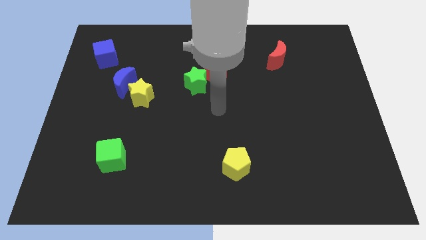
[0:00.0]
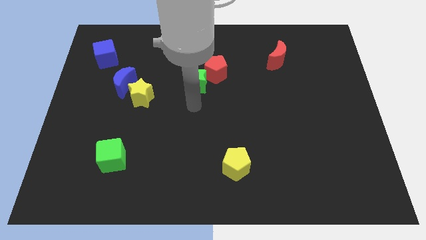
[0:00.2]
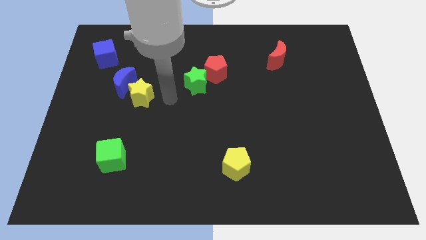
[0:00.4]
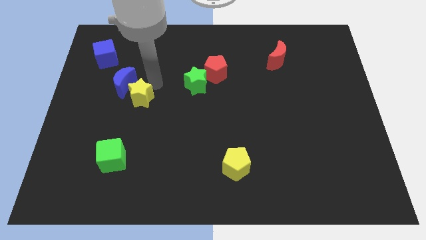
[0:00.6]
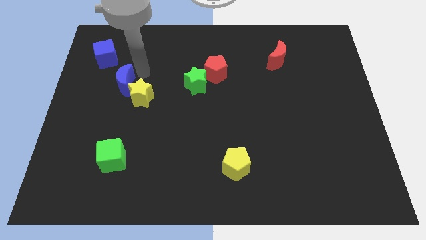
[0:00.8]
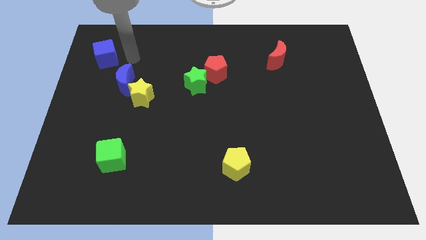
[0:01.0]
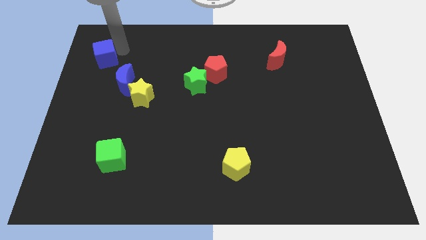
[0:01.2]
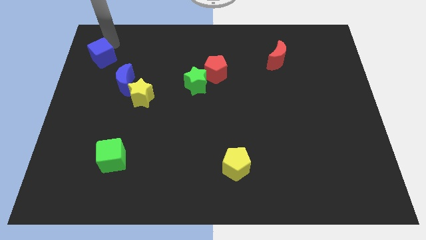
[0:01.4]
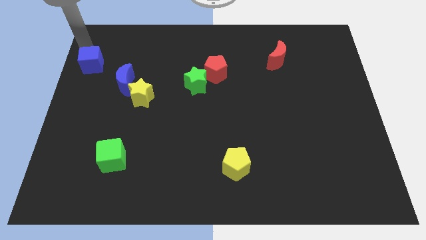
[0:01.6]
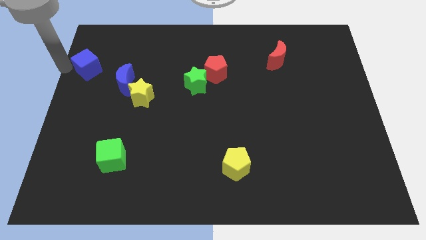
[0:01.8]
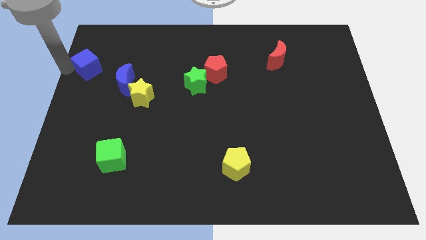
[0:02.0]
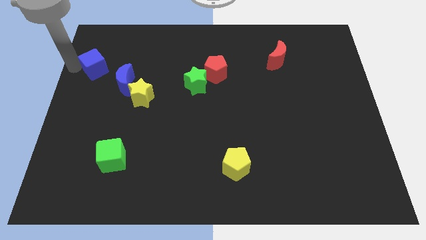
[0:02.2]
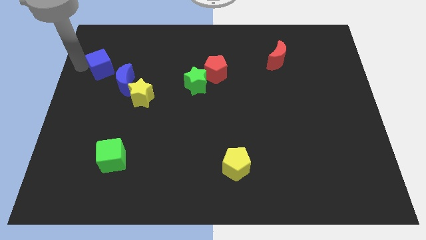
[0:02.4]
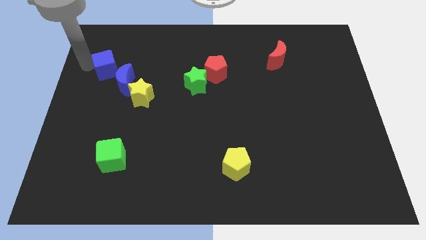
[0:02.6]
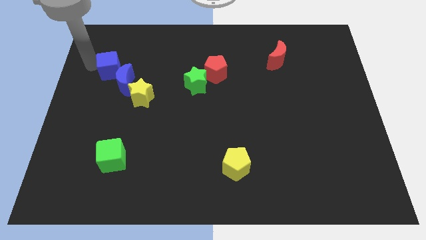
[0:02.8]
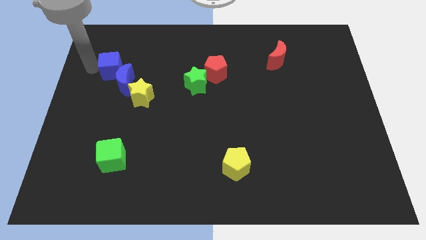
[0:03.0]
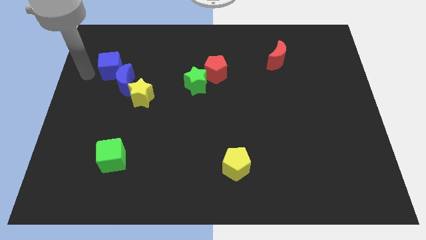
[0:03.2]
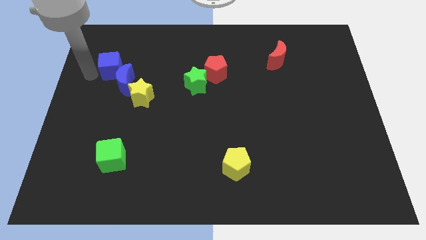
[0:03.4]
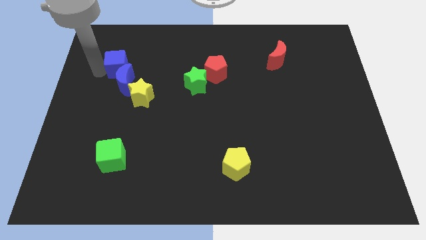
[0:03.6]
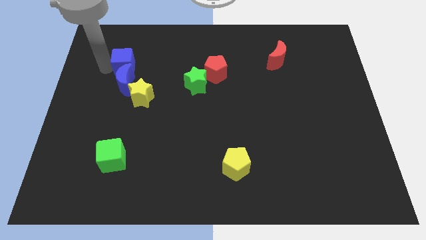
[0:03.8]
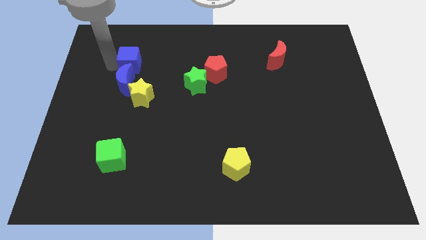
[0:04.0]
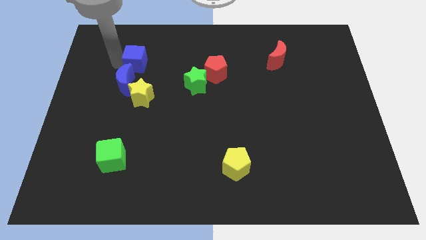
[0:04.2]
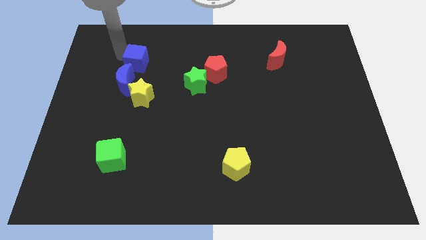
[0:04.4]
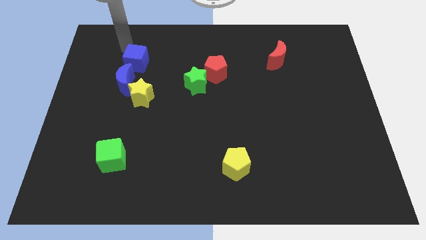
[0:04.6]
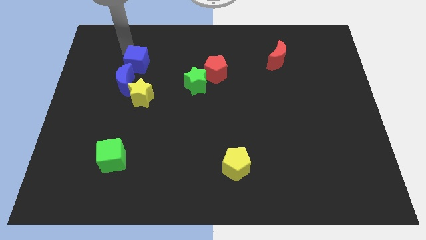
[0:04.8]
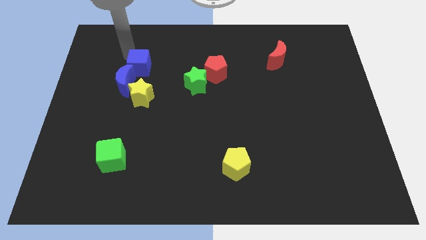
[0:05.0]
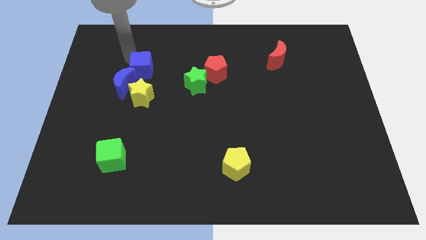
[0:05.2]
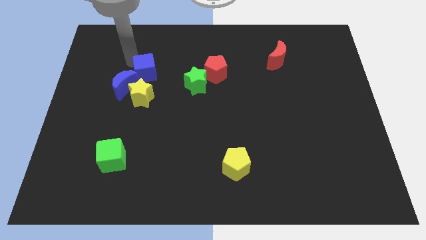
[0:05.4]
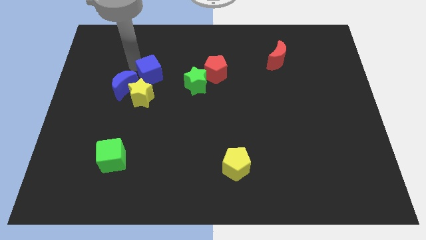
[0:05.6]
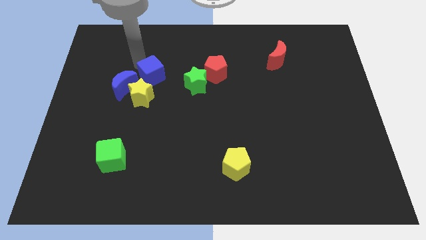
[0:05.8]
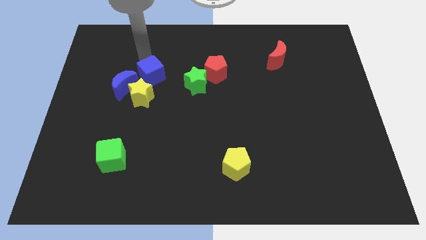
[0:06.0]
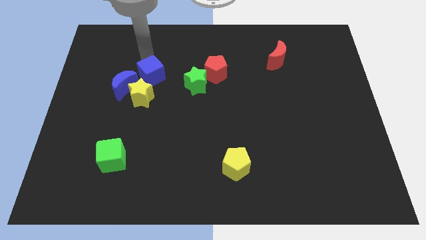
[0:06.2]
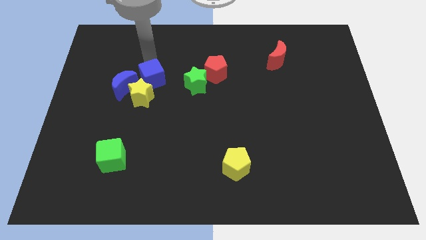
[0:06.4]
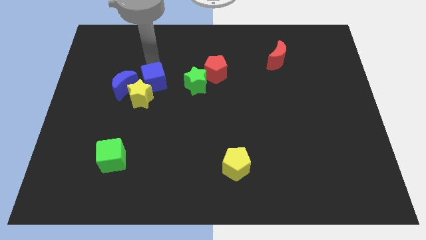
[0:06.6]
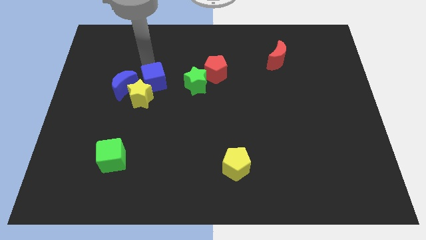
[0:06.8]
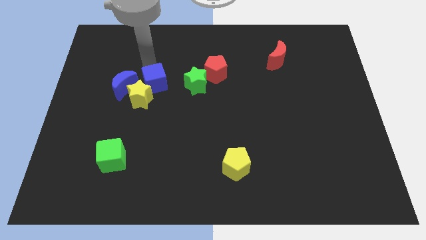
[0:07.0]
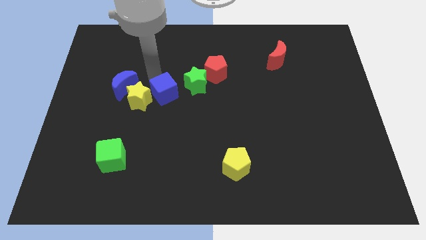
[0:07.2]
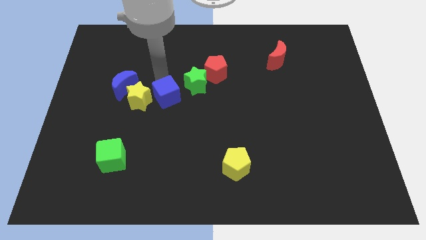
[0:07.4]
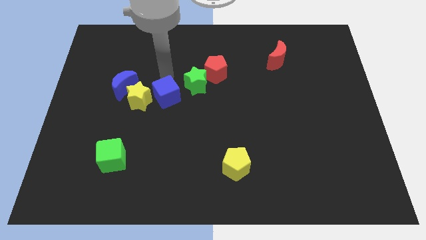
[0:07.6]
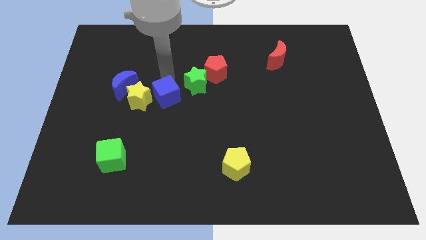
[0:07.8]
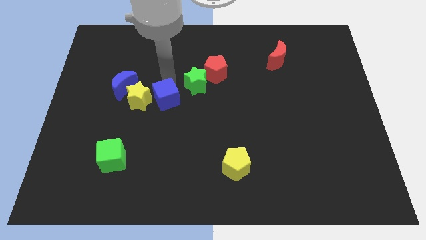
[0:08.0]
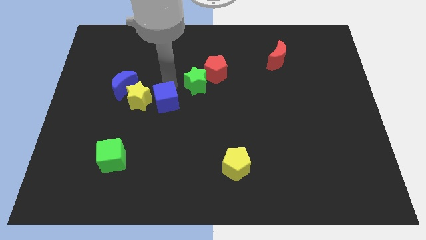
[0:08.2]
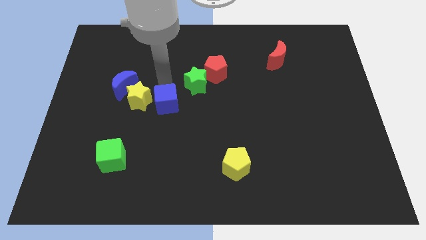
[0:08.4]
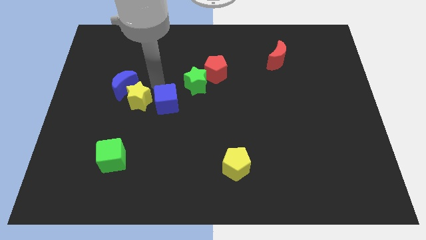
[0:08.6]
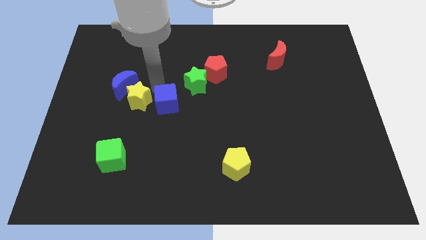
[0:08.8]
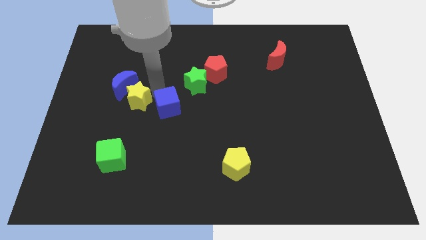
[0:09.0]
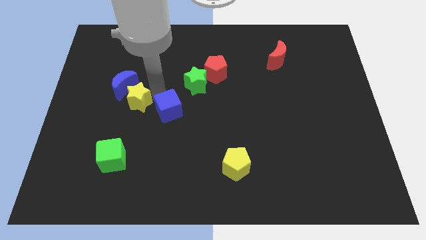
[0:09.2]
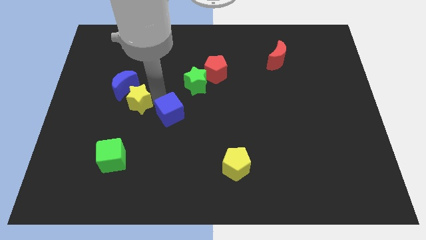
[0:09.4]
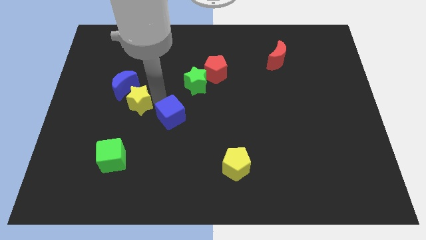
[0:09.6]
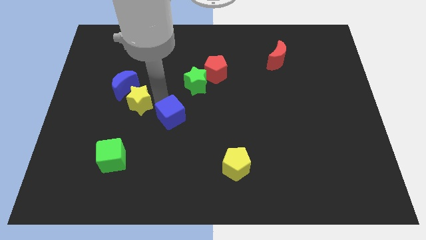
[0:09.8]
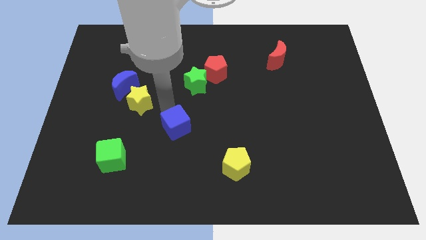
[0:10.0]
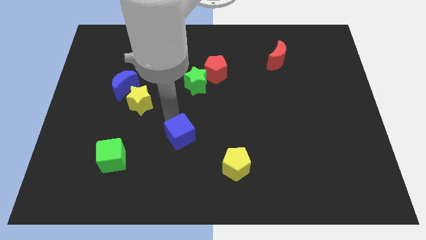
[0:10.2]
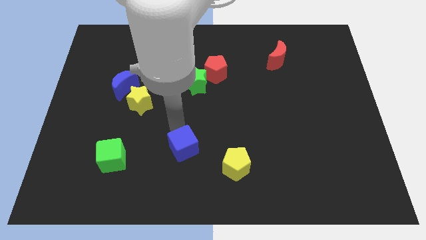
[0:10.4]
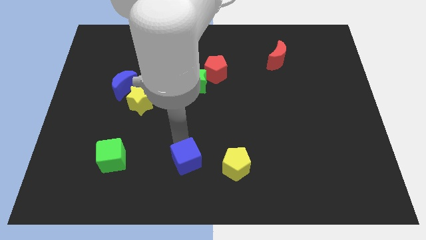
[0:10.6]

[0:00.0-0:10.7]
move the blue cube to the bottom side

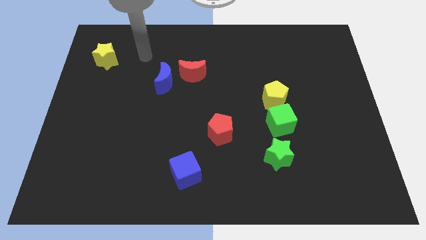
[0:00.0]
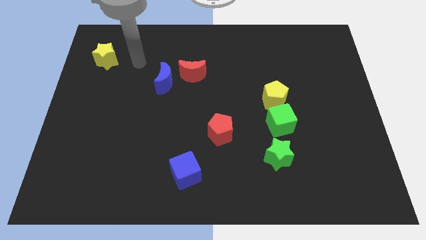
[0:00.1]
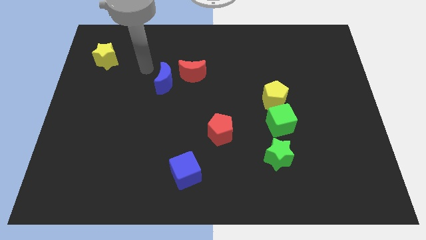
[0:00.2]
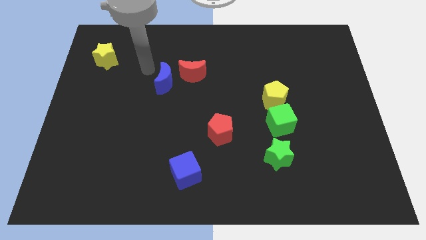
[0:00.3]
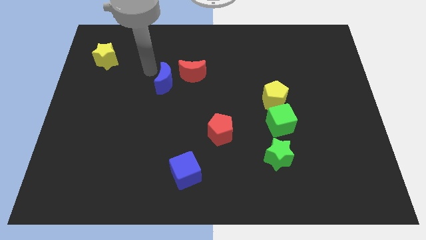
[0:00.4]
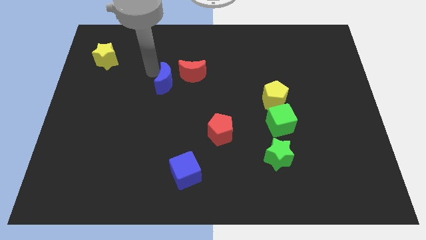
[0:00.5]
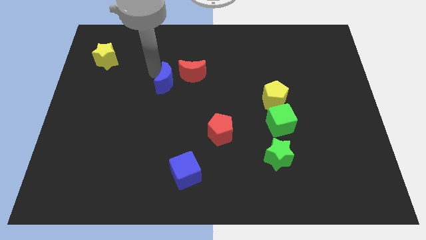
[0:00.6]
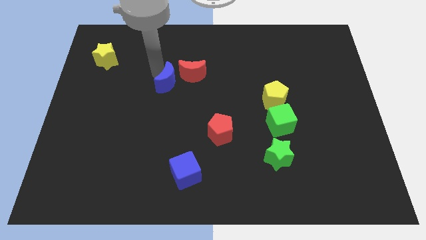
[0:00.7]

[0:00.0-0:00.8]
slide the blue moon to the middle

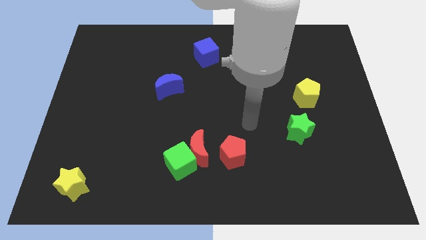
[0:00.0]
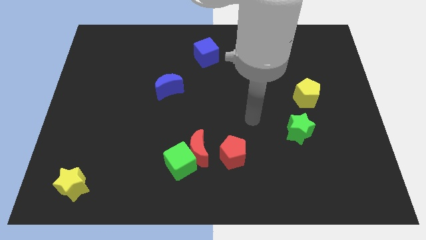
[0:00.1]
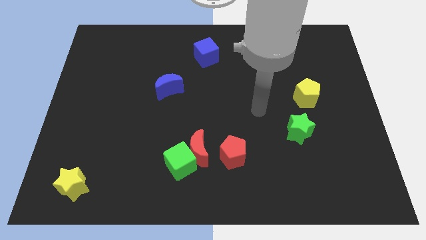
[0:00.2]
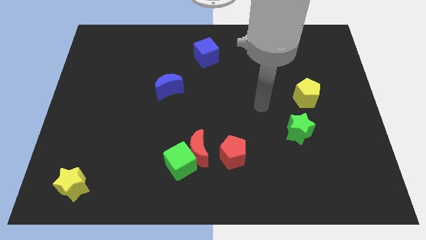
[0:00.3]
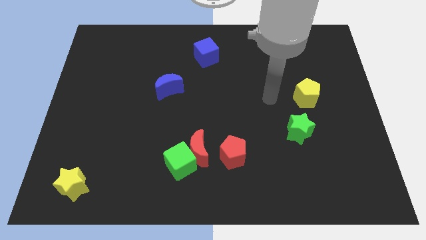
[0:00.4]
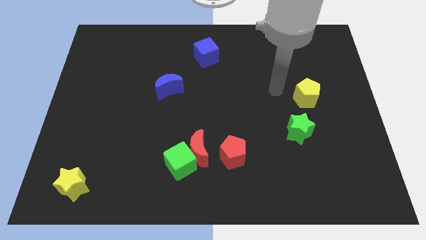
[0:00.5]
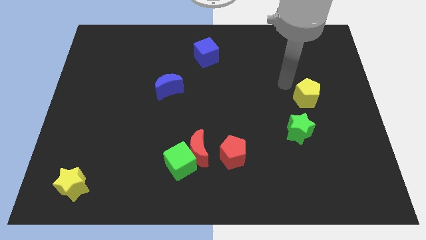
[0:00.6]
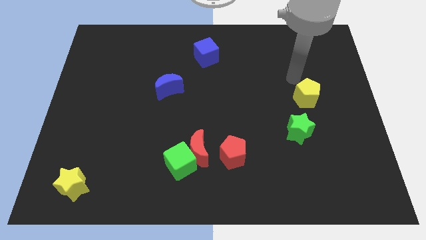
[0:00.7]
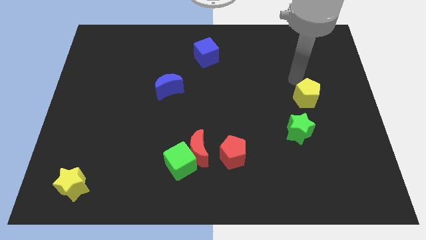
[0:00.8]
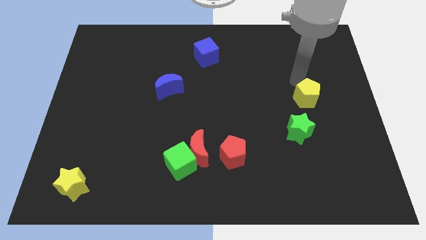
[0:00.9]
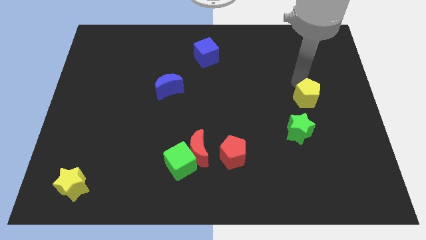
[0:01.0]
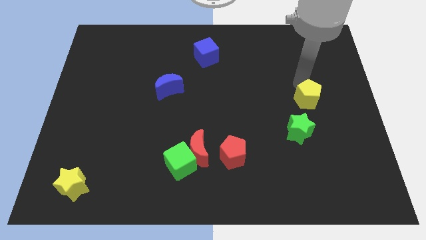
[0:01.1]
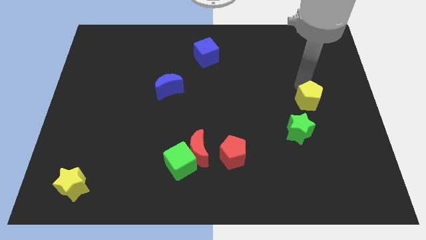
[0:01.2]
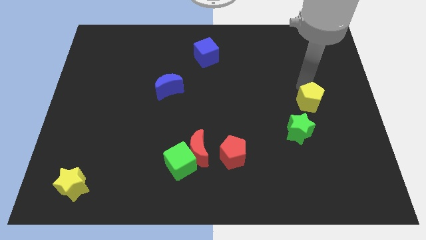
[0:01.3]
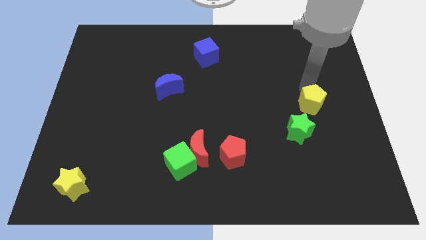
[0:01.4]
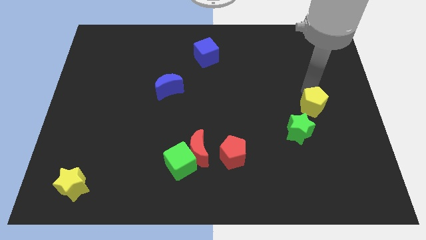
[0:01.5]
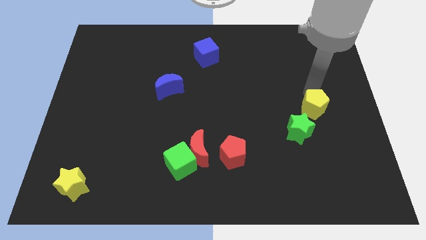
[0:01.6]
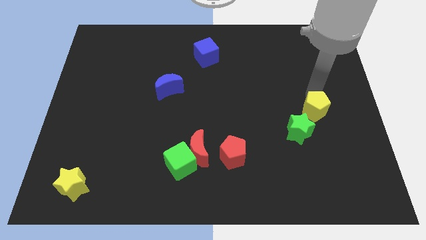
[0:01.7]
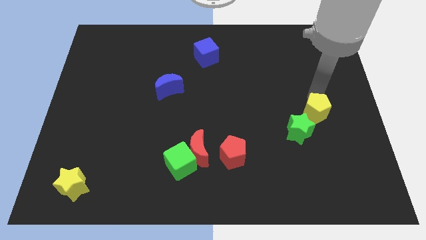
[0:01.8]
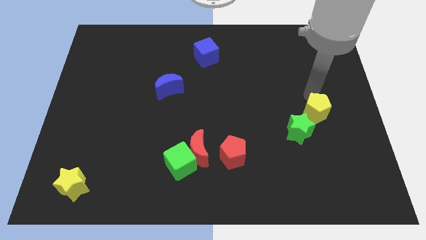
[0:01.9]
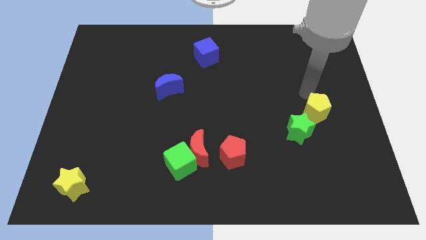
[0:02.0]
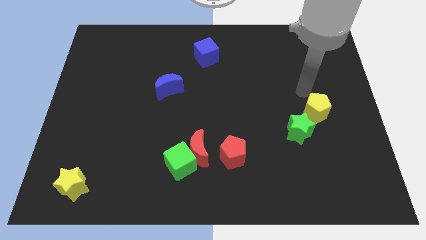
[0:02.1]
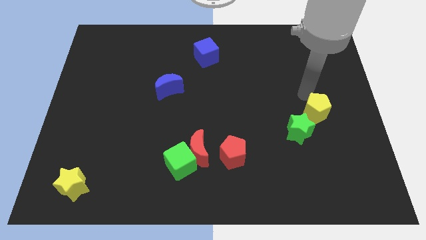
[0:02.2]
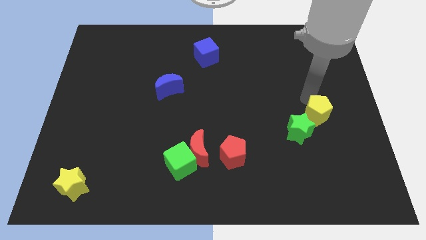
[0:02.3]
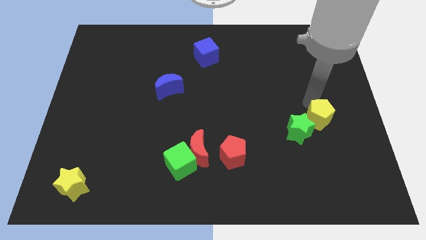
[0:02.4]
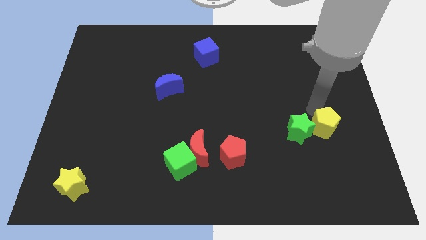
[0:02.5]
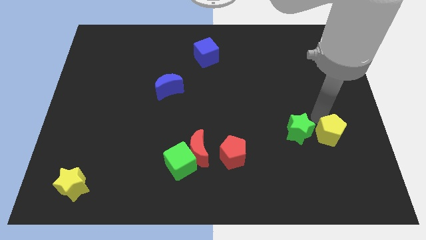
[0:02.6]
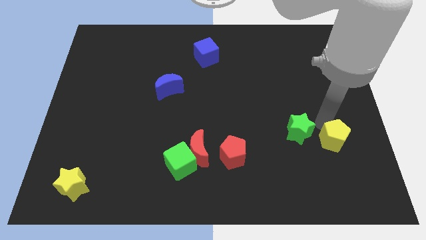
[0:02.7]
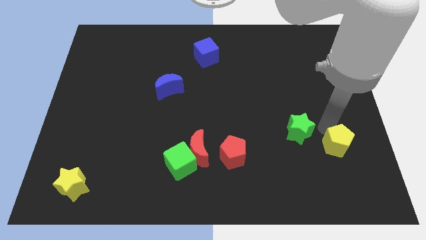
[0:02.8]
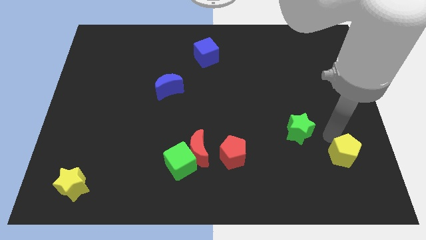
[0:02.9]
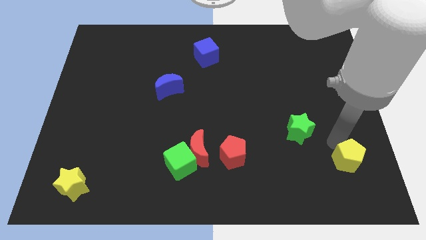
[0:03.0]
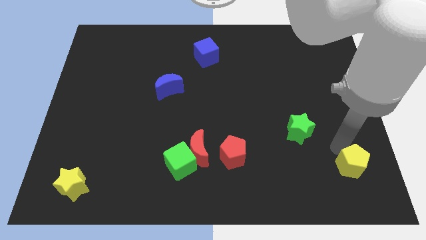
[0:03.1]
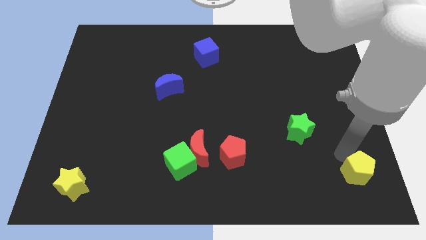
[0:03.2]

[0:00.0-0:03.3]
push the yellow pentagon to the lower right corner
